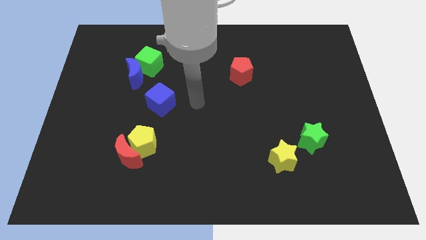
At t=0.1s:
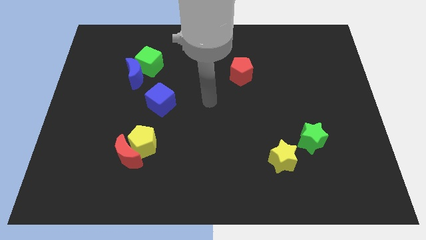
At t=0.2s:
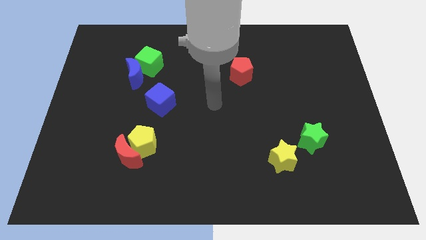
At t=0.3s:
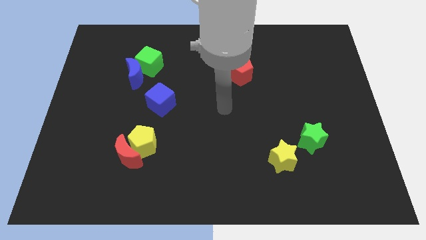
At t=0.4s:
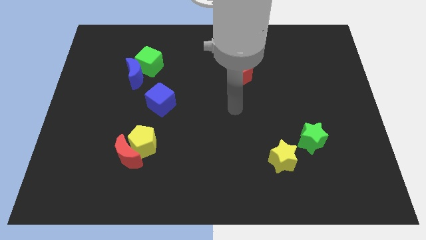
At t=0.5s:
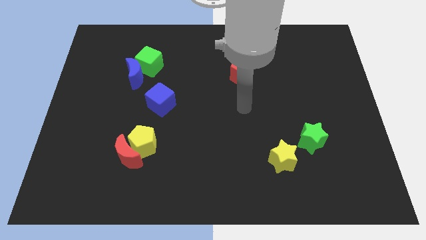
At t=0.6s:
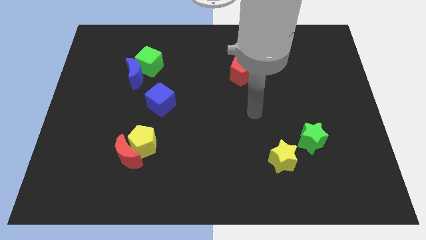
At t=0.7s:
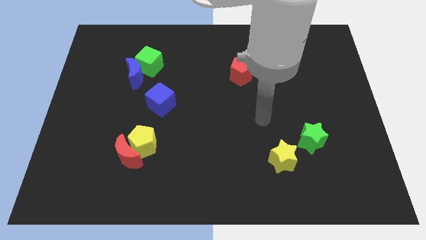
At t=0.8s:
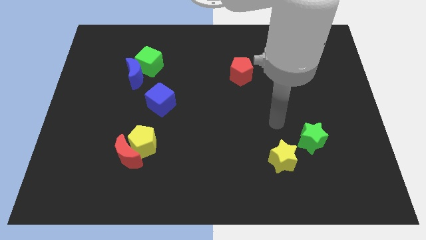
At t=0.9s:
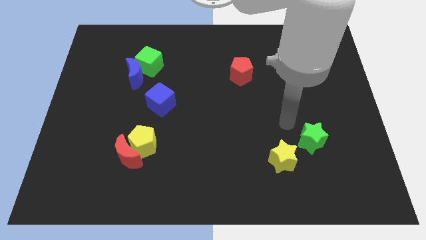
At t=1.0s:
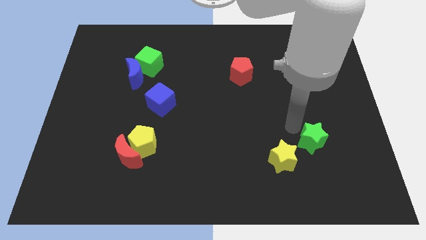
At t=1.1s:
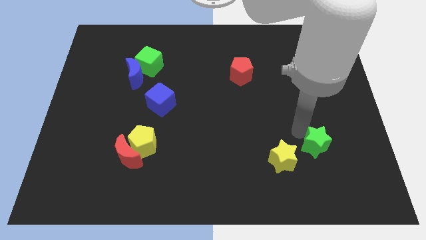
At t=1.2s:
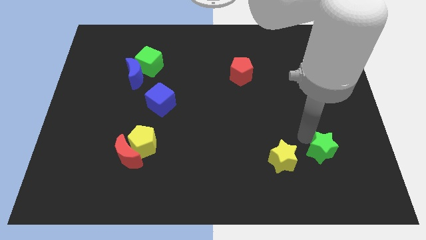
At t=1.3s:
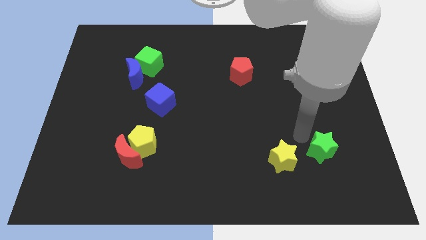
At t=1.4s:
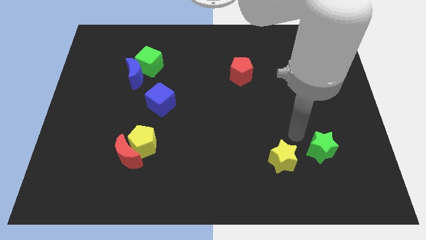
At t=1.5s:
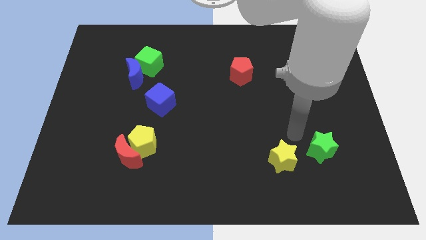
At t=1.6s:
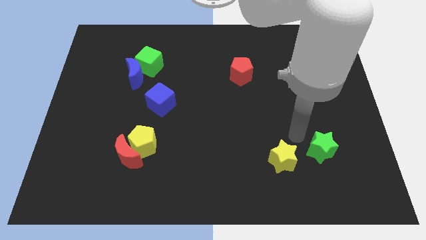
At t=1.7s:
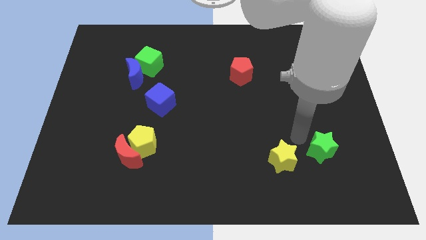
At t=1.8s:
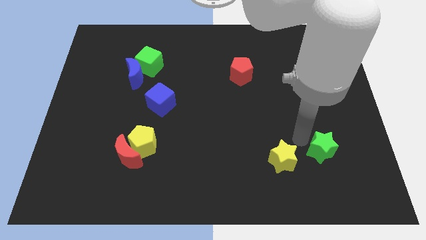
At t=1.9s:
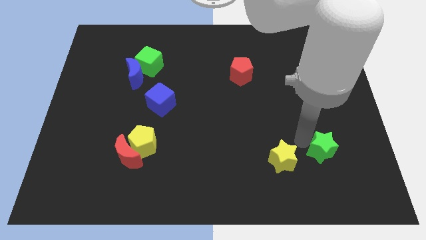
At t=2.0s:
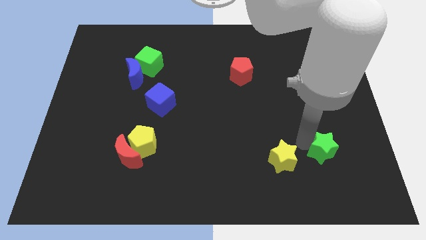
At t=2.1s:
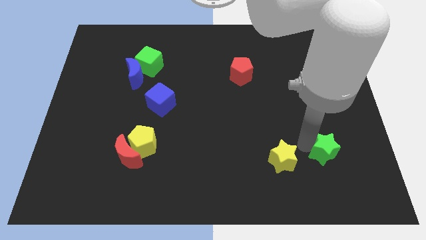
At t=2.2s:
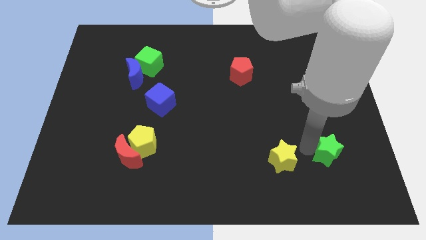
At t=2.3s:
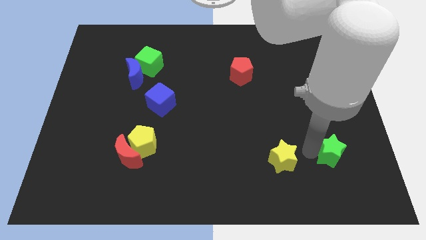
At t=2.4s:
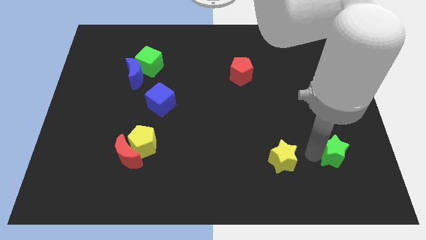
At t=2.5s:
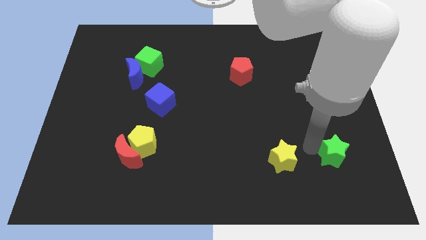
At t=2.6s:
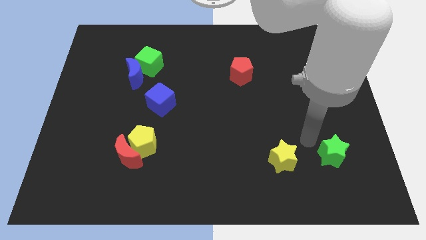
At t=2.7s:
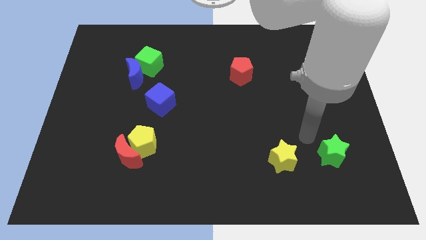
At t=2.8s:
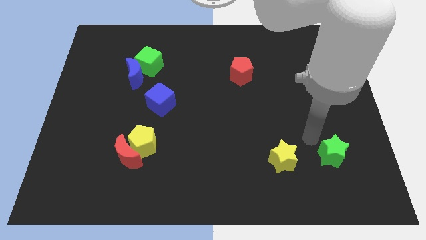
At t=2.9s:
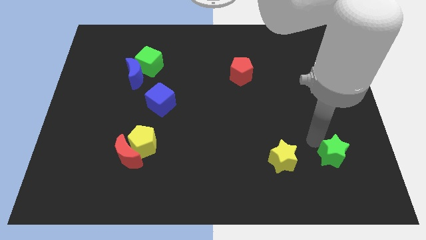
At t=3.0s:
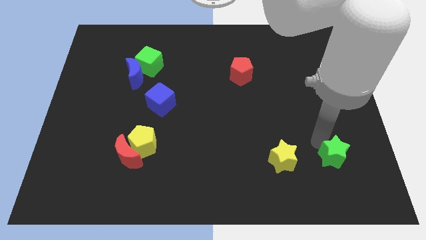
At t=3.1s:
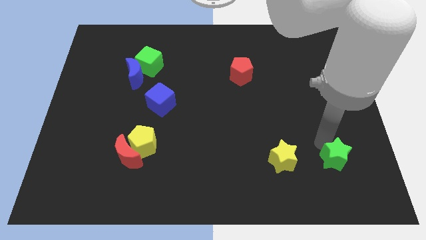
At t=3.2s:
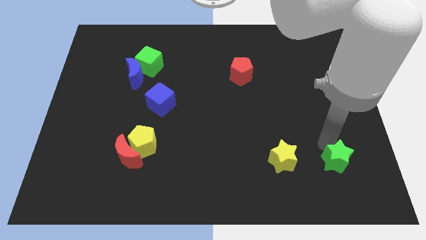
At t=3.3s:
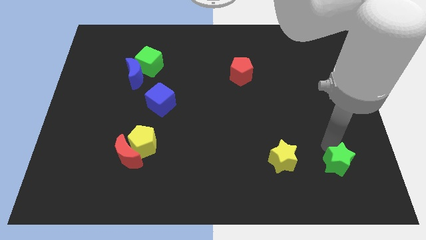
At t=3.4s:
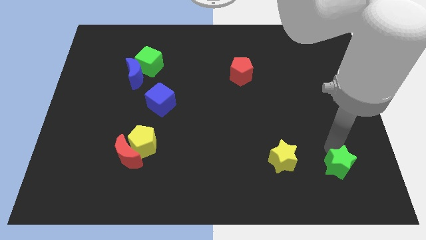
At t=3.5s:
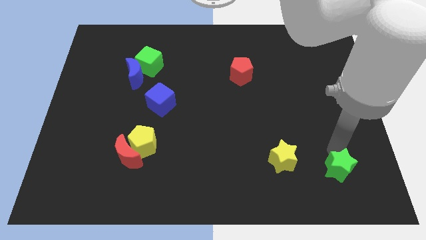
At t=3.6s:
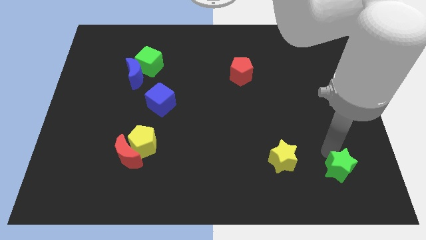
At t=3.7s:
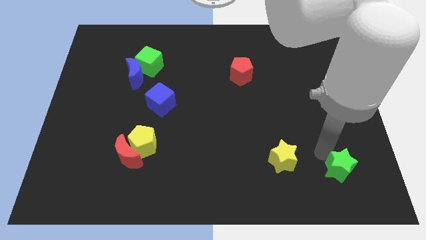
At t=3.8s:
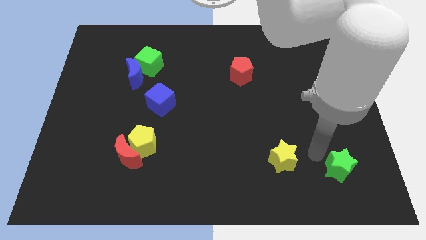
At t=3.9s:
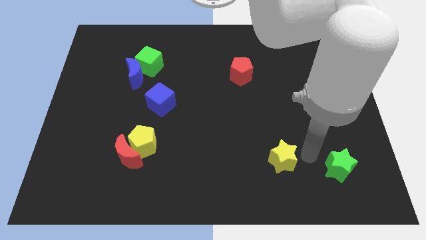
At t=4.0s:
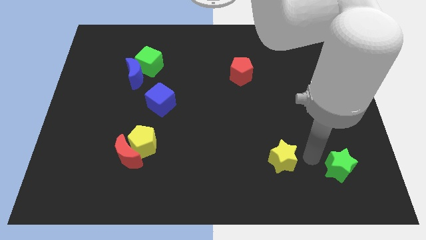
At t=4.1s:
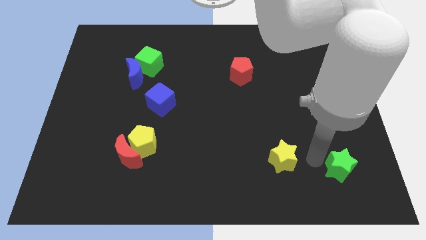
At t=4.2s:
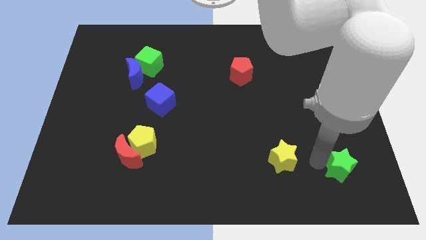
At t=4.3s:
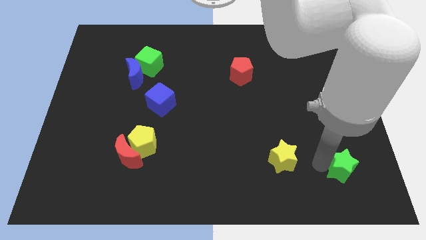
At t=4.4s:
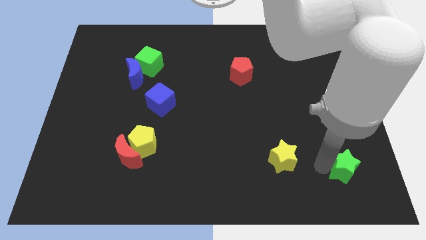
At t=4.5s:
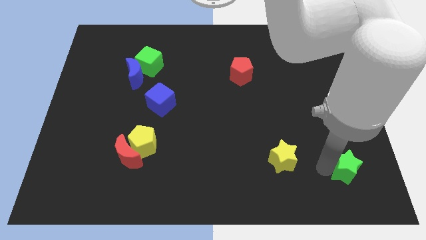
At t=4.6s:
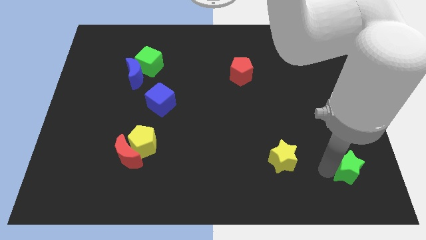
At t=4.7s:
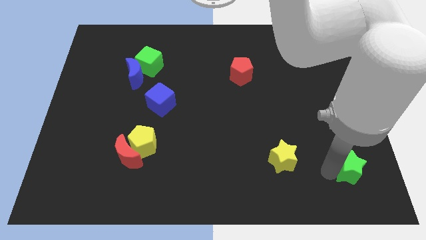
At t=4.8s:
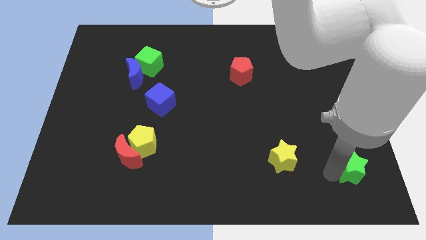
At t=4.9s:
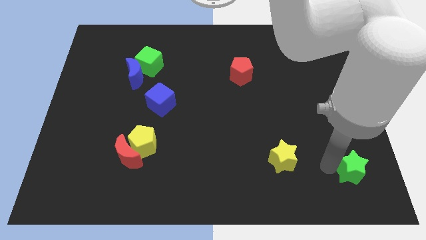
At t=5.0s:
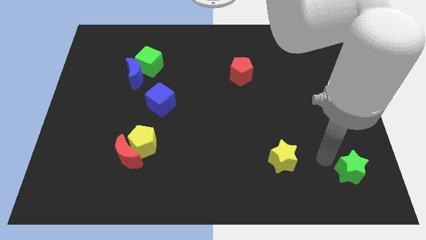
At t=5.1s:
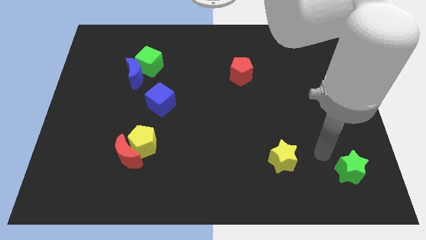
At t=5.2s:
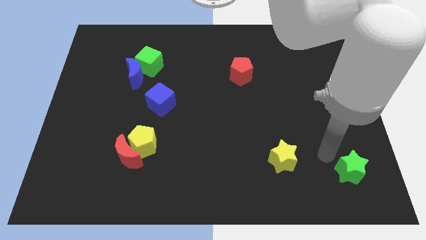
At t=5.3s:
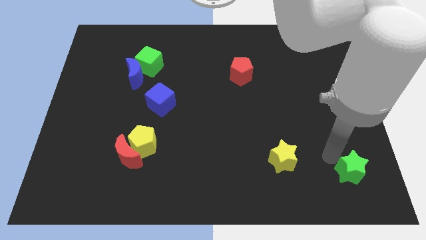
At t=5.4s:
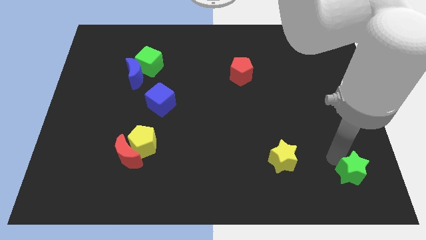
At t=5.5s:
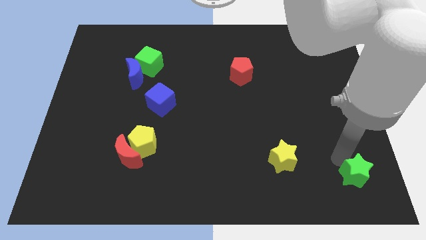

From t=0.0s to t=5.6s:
move the green star to the bottom right

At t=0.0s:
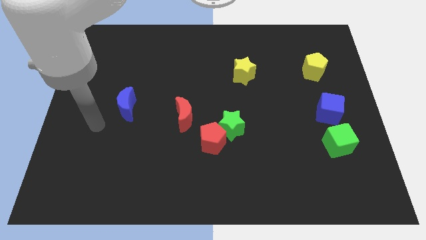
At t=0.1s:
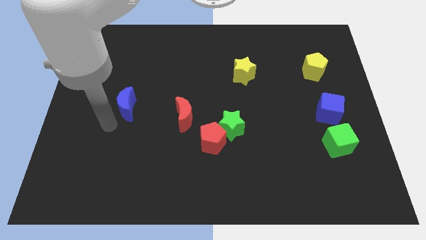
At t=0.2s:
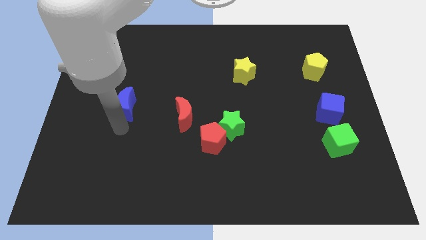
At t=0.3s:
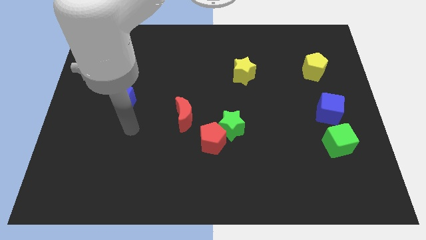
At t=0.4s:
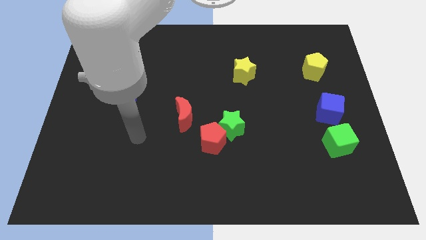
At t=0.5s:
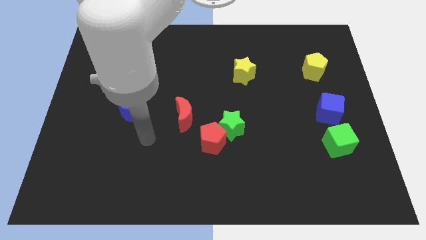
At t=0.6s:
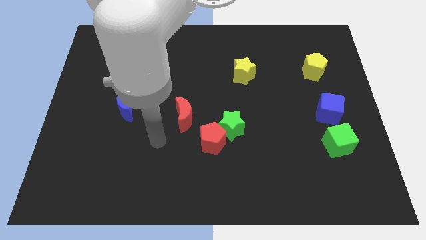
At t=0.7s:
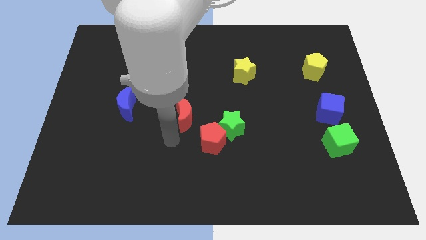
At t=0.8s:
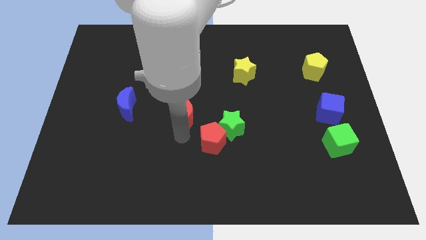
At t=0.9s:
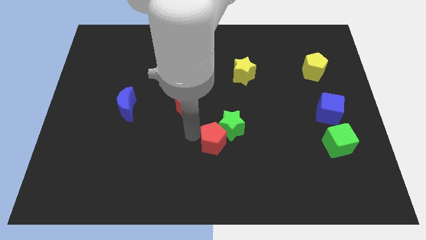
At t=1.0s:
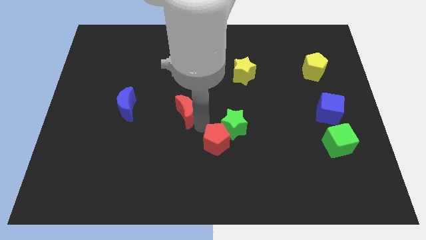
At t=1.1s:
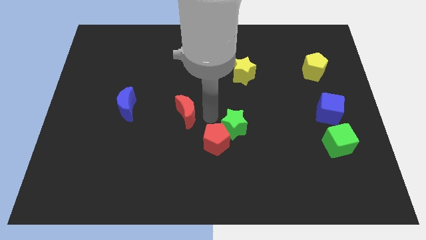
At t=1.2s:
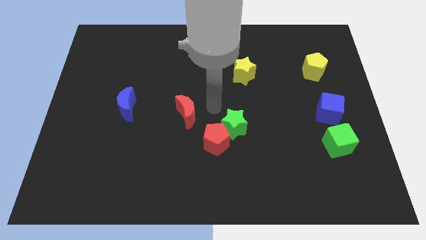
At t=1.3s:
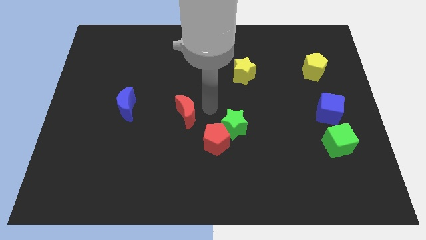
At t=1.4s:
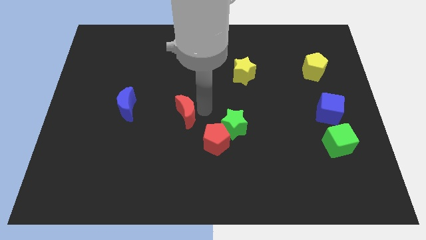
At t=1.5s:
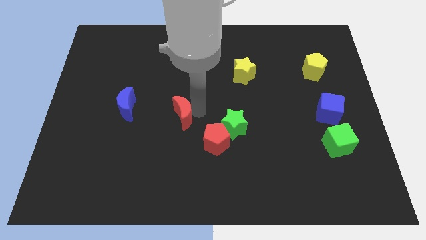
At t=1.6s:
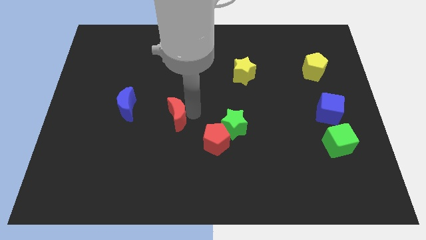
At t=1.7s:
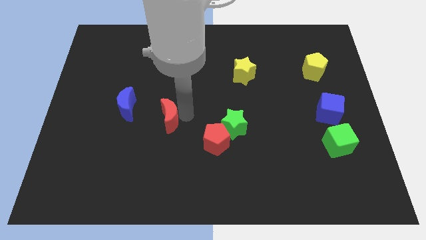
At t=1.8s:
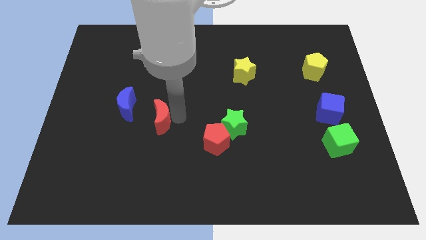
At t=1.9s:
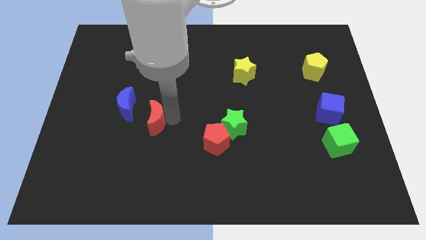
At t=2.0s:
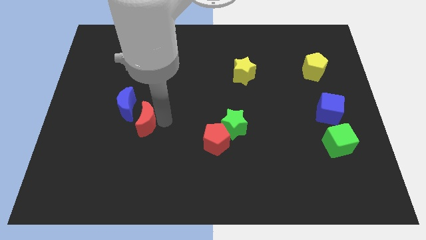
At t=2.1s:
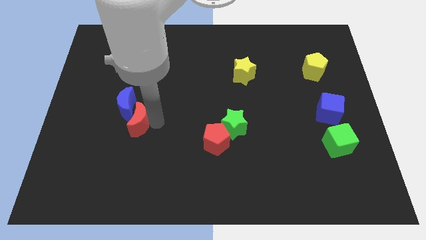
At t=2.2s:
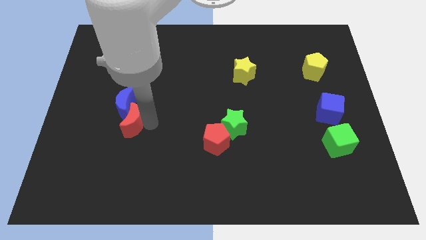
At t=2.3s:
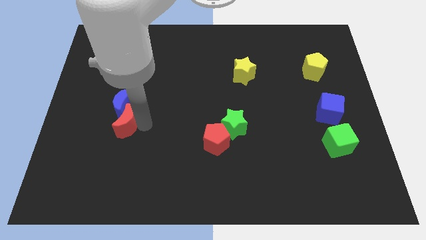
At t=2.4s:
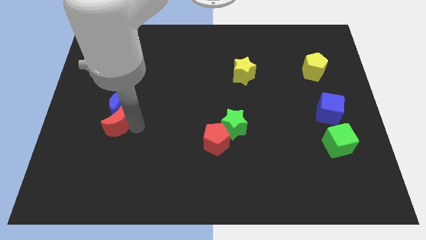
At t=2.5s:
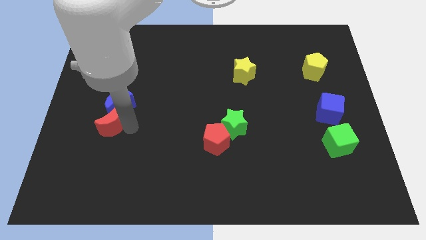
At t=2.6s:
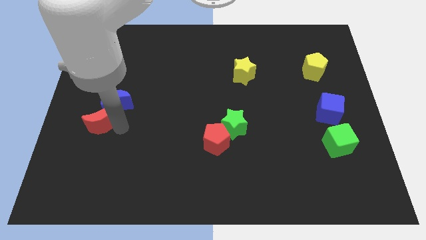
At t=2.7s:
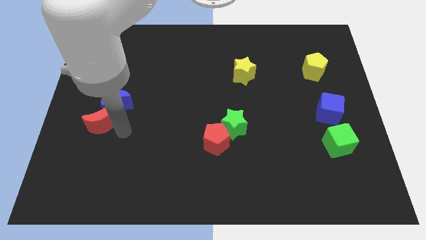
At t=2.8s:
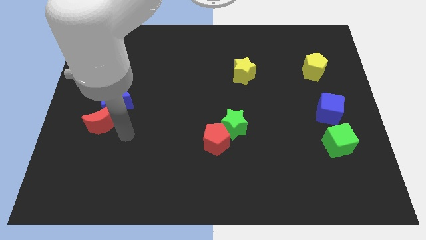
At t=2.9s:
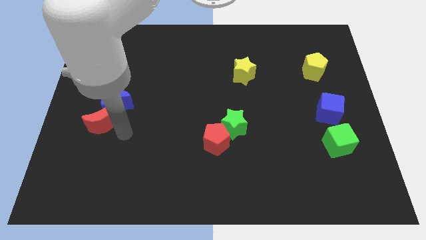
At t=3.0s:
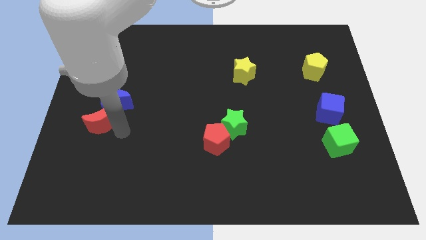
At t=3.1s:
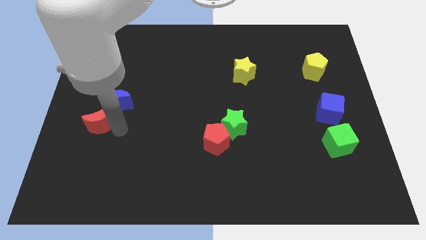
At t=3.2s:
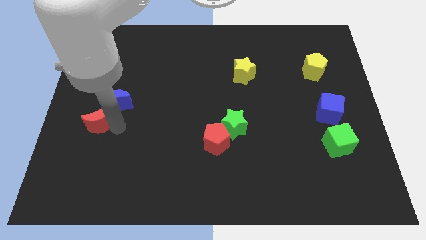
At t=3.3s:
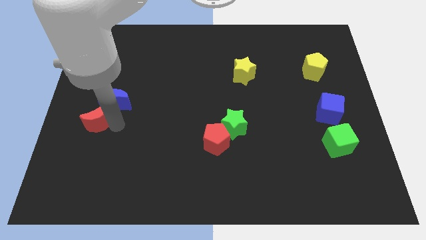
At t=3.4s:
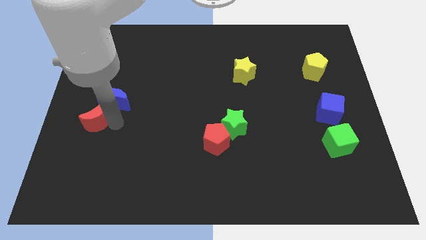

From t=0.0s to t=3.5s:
slide the red moon to the left side
